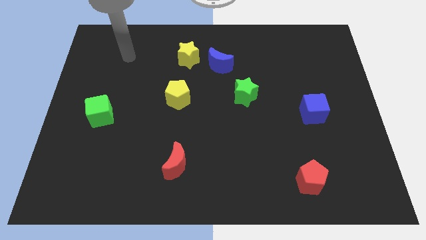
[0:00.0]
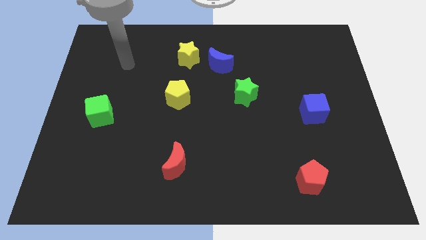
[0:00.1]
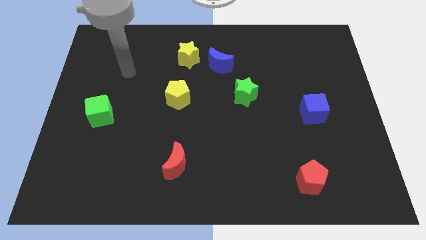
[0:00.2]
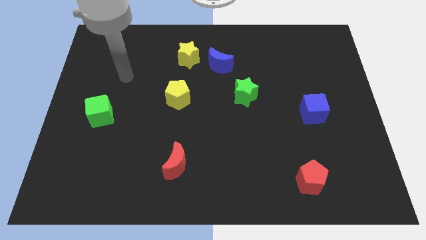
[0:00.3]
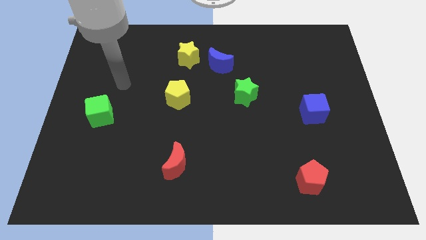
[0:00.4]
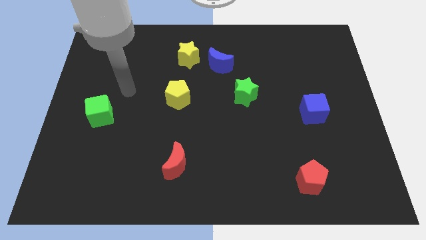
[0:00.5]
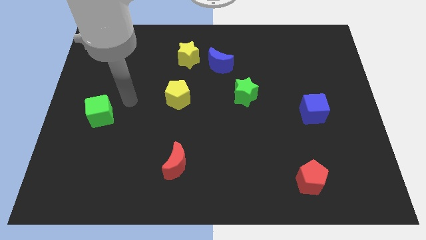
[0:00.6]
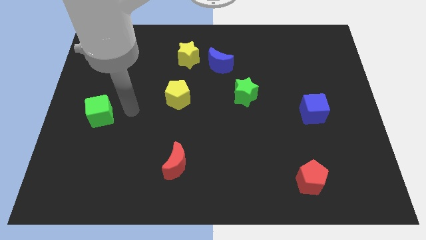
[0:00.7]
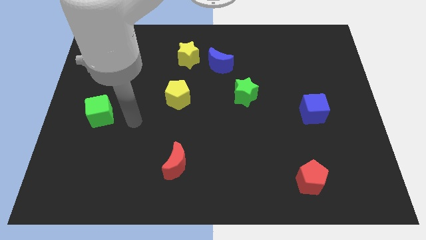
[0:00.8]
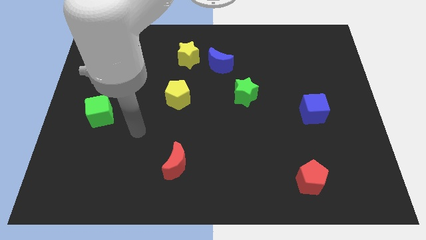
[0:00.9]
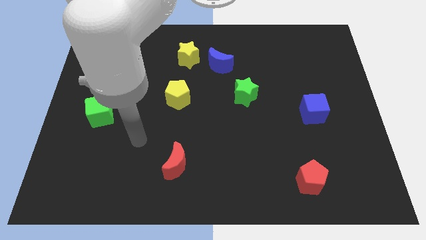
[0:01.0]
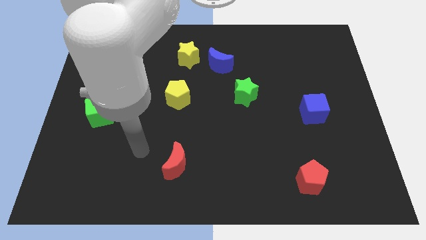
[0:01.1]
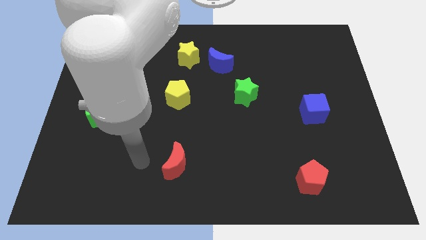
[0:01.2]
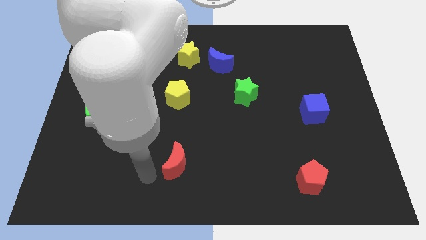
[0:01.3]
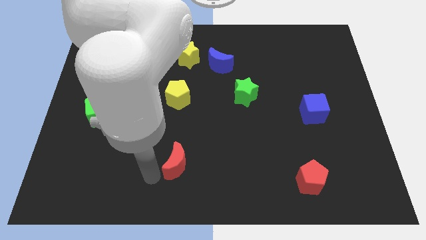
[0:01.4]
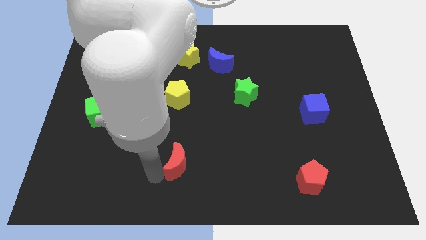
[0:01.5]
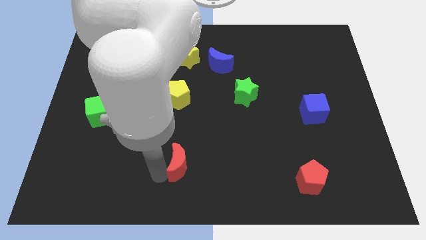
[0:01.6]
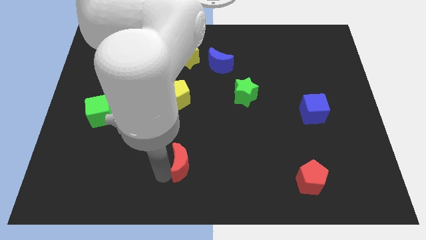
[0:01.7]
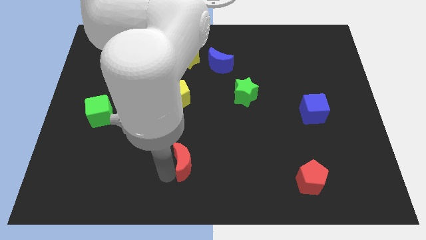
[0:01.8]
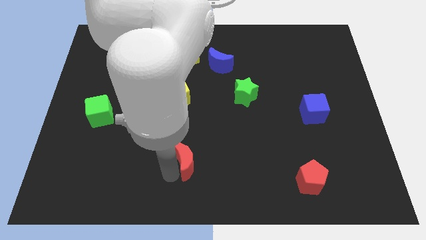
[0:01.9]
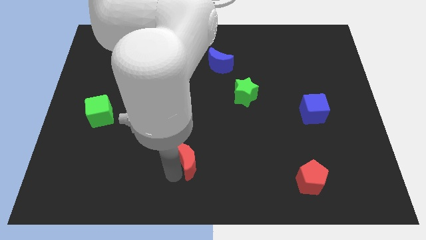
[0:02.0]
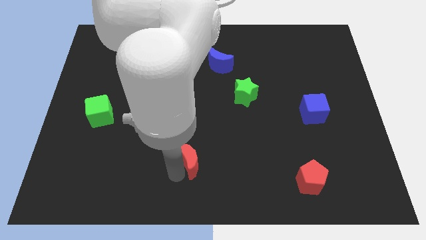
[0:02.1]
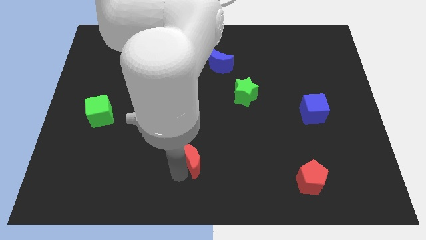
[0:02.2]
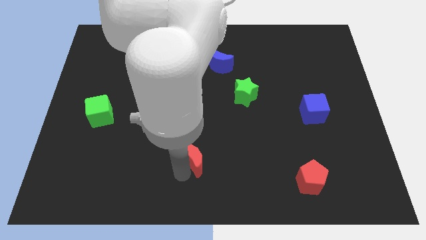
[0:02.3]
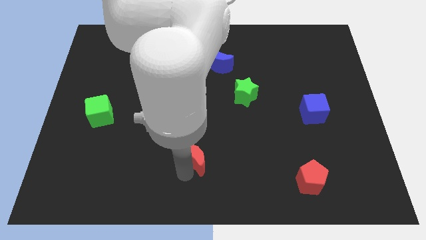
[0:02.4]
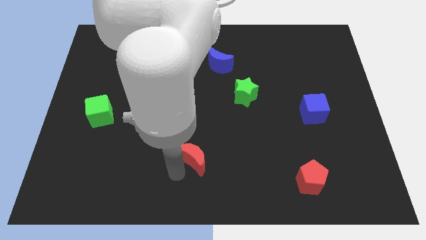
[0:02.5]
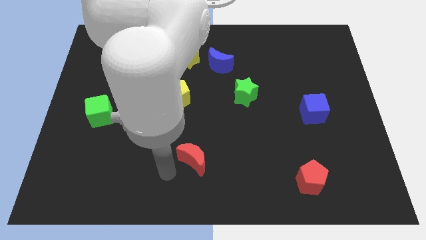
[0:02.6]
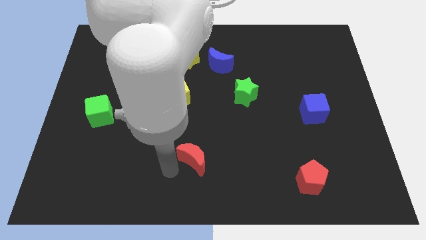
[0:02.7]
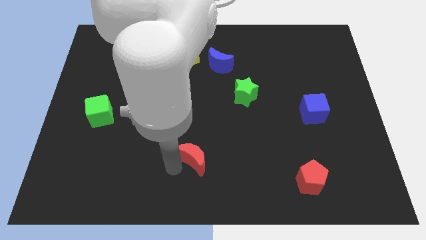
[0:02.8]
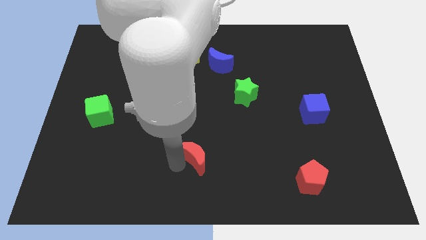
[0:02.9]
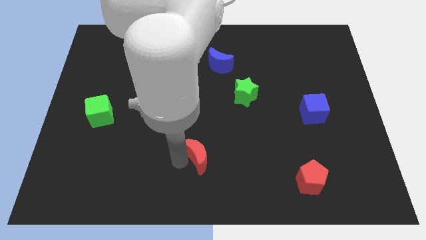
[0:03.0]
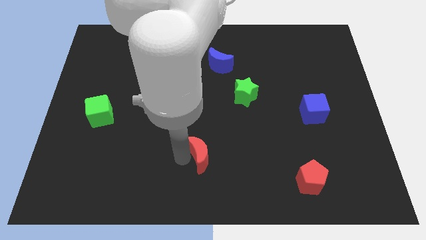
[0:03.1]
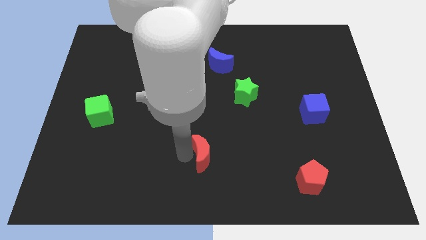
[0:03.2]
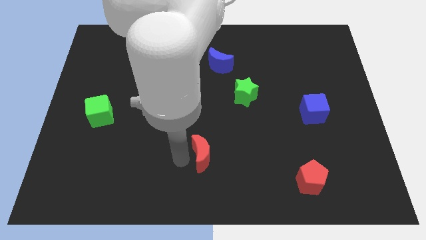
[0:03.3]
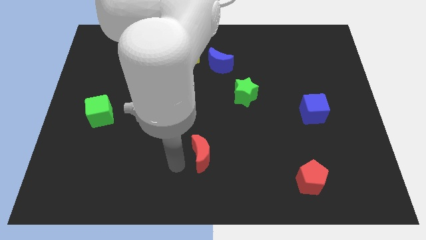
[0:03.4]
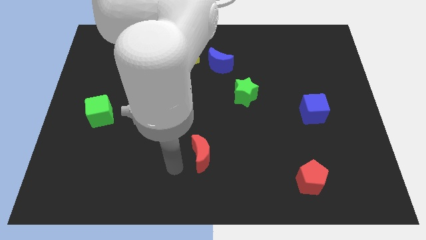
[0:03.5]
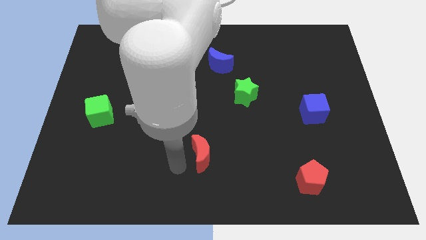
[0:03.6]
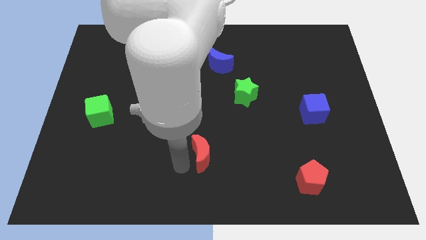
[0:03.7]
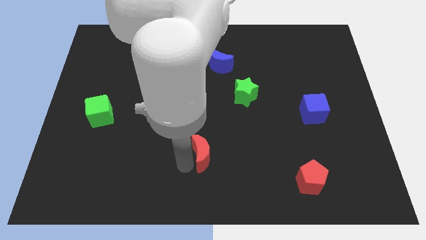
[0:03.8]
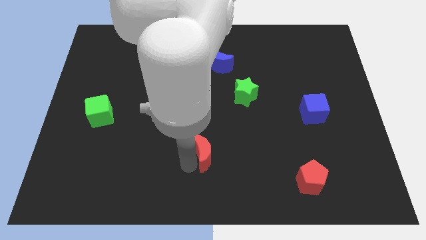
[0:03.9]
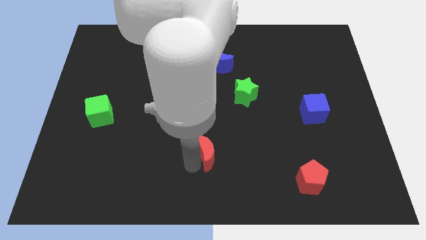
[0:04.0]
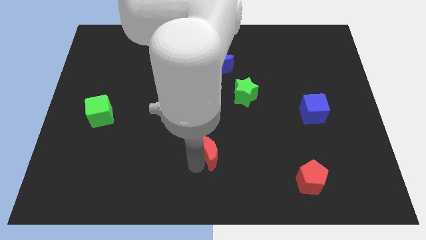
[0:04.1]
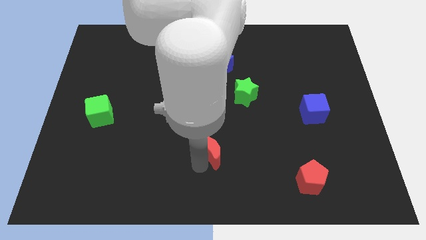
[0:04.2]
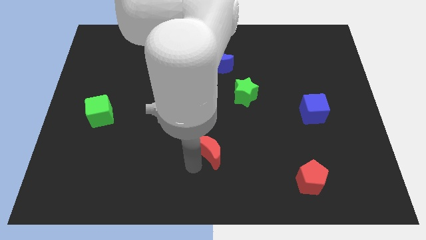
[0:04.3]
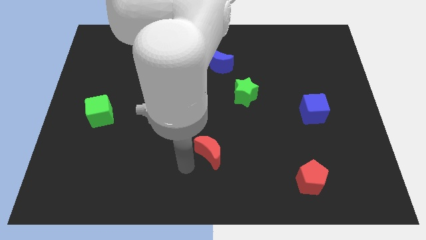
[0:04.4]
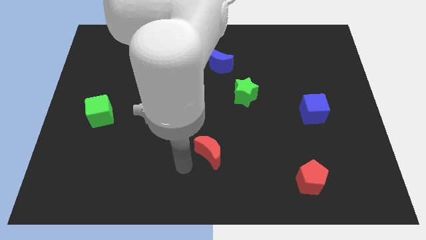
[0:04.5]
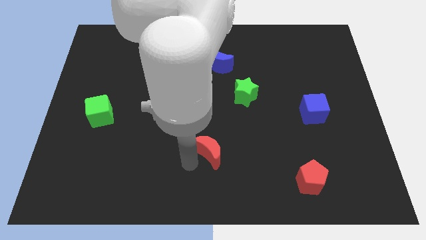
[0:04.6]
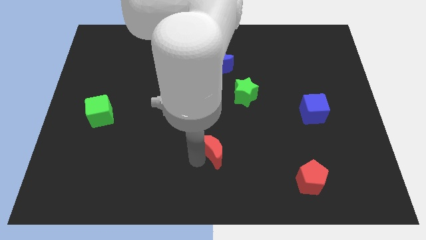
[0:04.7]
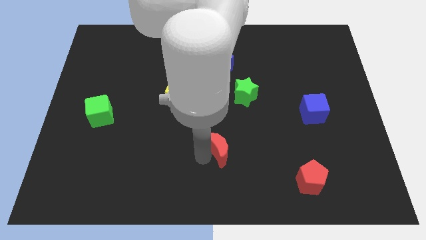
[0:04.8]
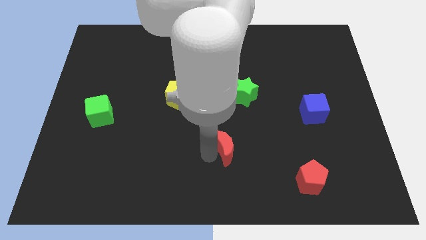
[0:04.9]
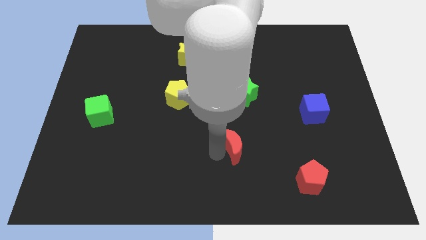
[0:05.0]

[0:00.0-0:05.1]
put the red moon to the bottom of the green star

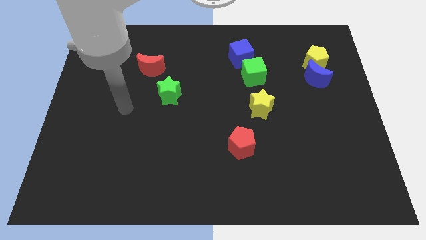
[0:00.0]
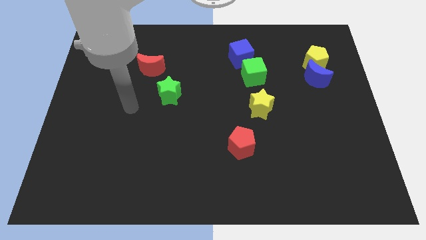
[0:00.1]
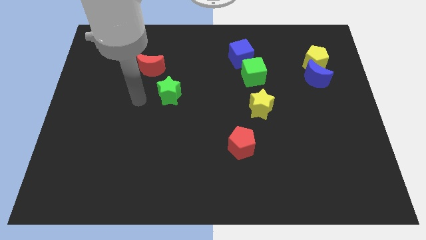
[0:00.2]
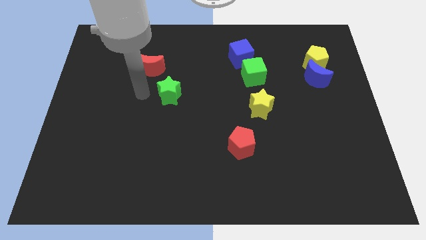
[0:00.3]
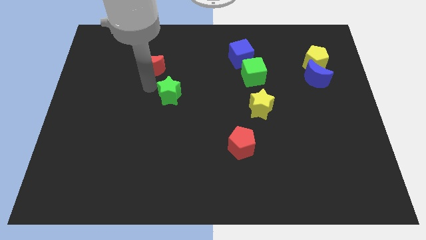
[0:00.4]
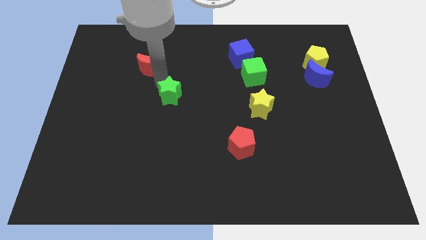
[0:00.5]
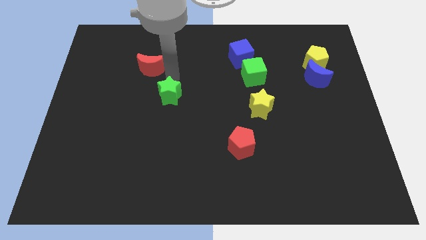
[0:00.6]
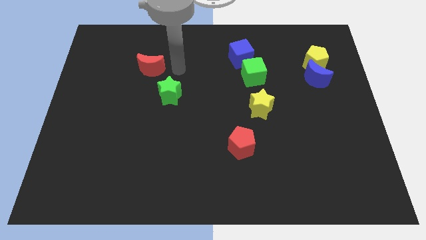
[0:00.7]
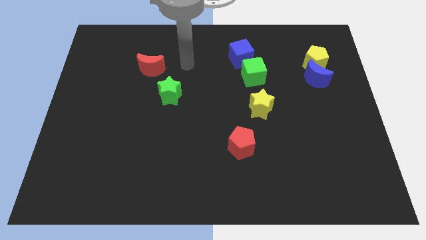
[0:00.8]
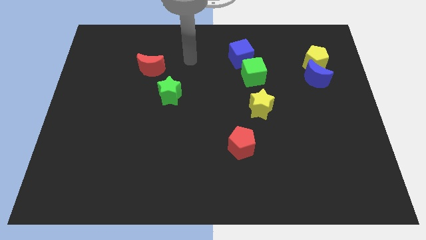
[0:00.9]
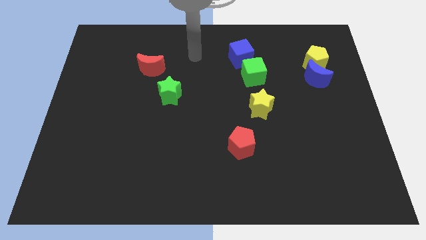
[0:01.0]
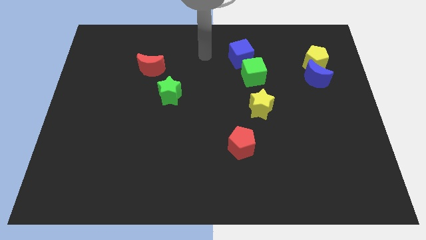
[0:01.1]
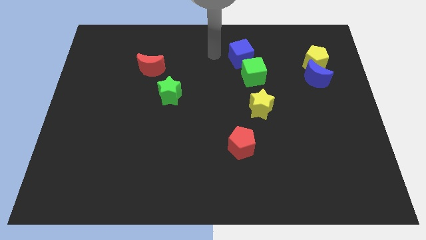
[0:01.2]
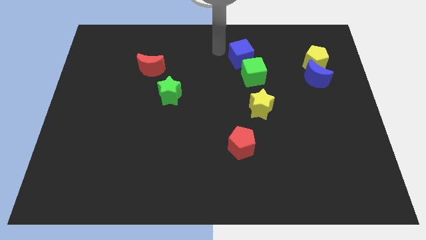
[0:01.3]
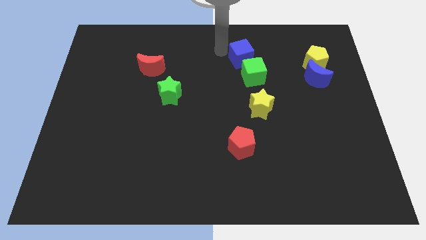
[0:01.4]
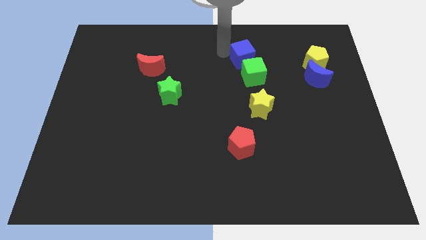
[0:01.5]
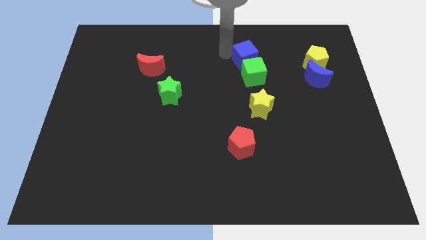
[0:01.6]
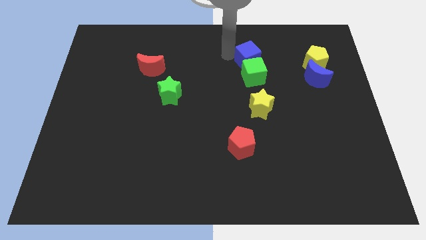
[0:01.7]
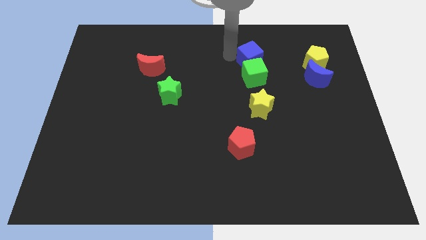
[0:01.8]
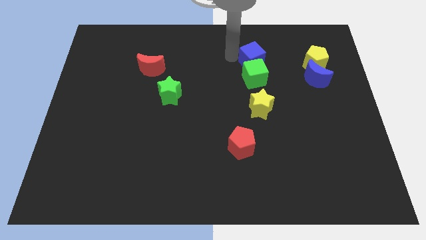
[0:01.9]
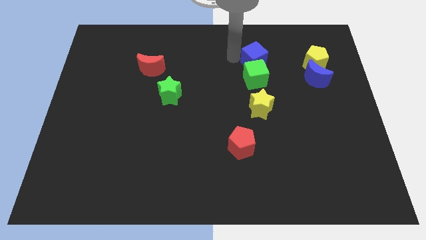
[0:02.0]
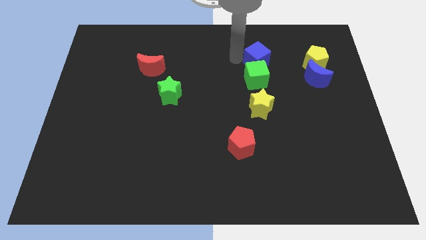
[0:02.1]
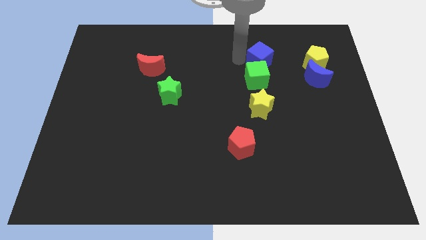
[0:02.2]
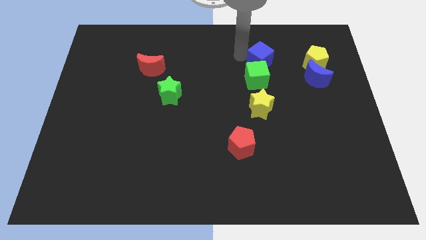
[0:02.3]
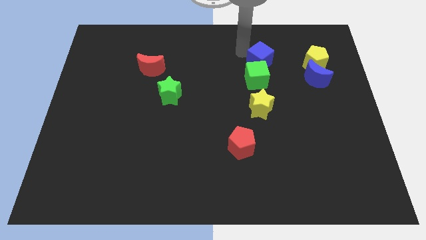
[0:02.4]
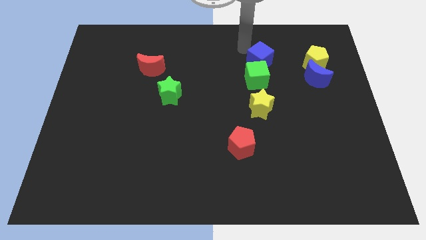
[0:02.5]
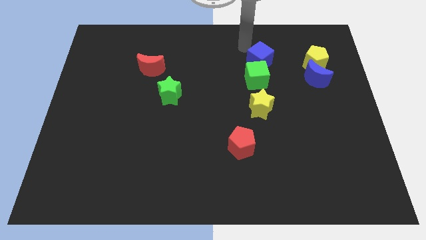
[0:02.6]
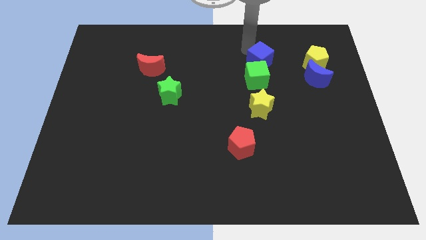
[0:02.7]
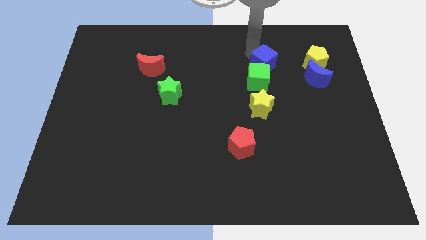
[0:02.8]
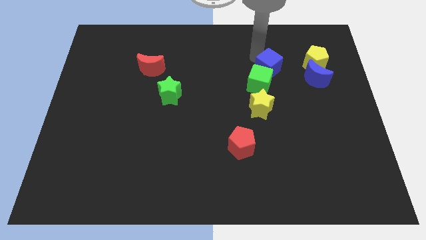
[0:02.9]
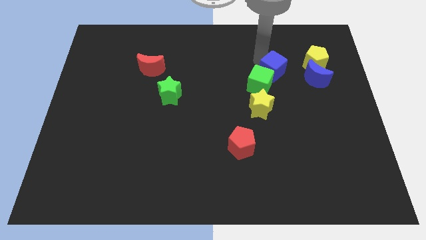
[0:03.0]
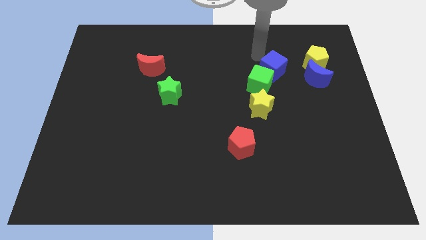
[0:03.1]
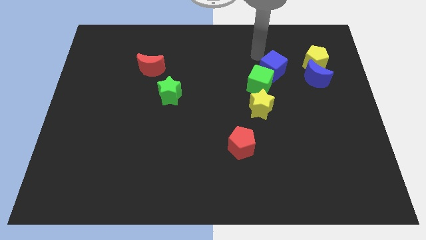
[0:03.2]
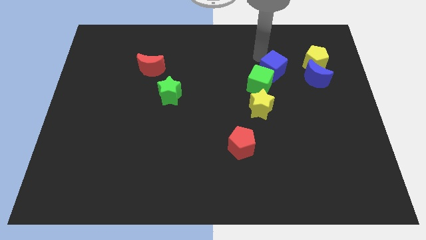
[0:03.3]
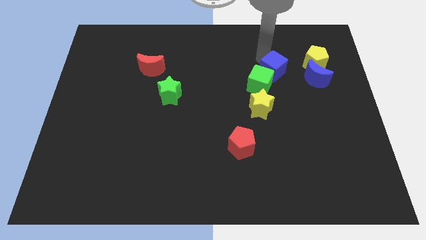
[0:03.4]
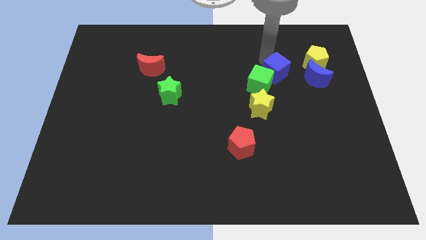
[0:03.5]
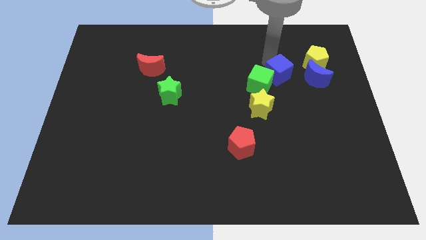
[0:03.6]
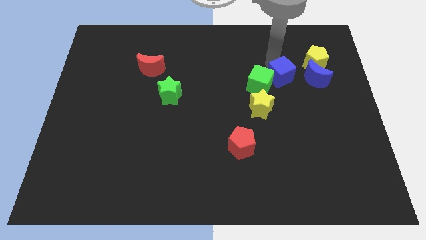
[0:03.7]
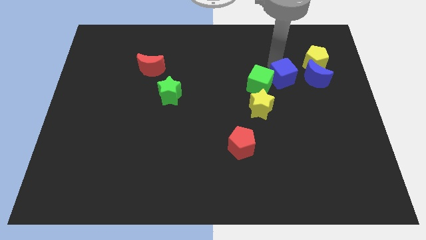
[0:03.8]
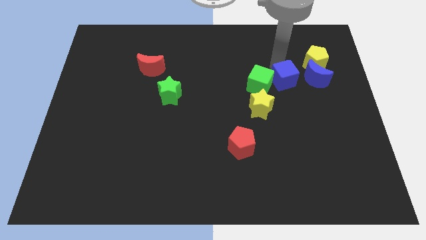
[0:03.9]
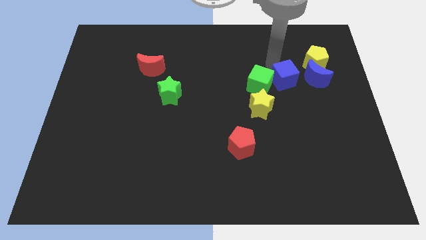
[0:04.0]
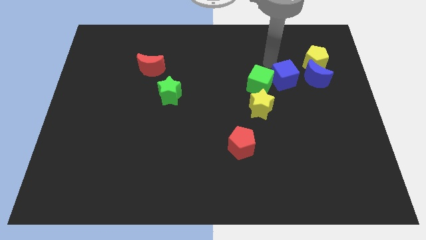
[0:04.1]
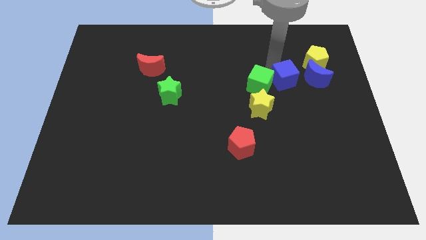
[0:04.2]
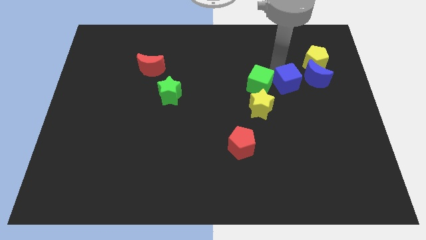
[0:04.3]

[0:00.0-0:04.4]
slide the blue cube diagonally down and to the left of the blue moon
